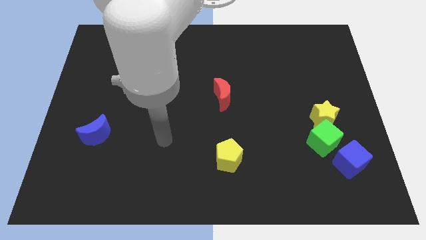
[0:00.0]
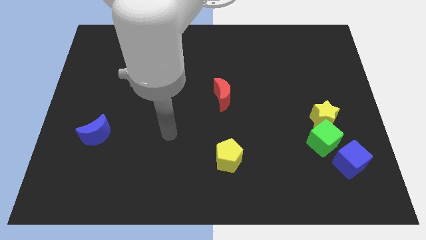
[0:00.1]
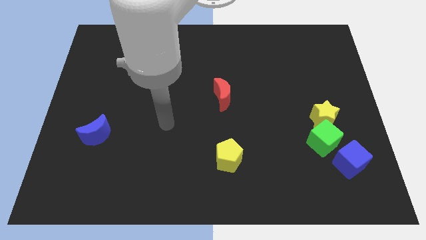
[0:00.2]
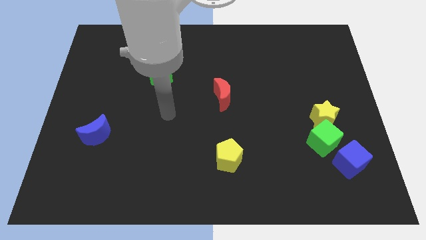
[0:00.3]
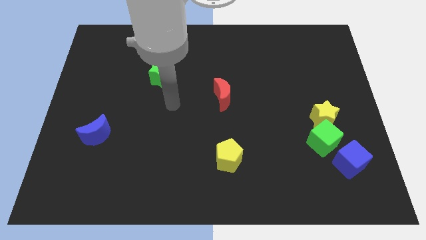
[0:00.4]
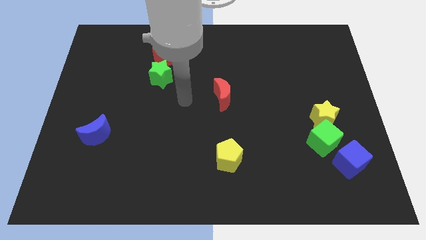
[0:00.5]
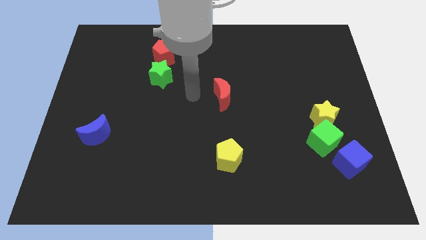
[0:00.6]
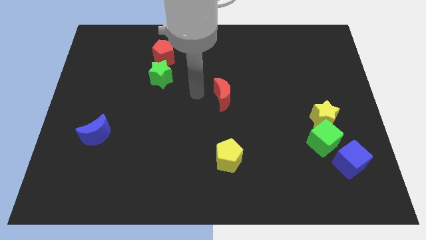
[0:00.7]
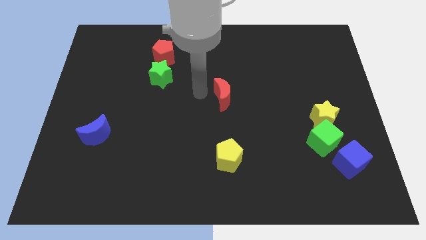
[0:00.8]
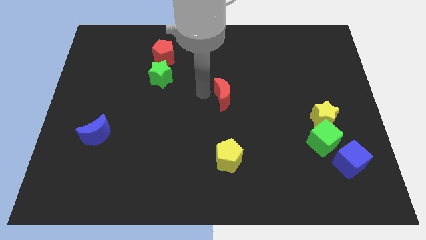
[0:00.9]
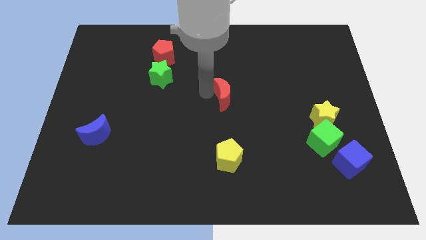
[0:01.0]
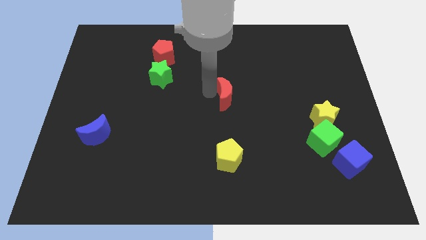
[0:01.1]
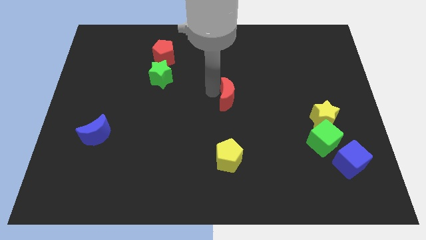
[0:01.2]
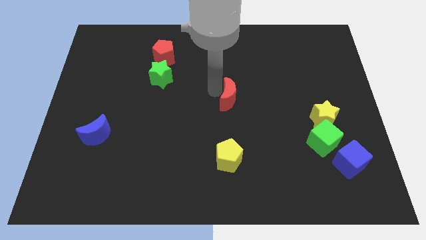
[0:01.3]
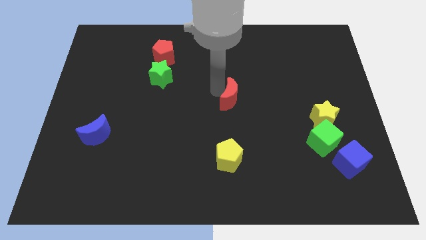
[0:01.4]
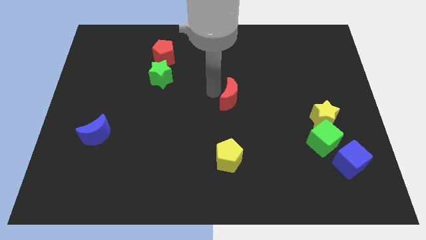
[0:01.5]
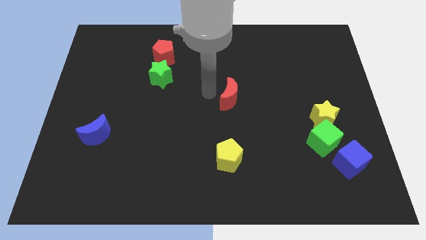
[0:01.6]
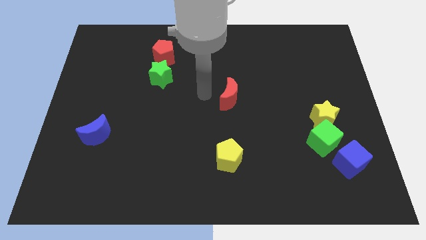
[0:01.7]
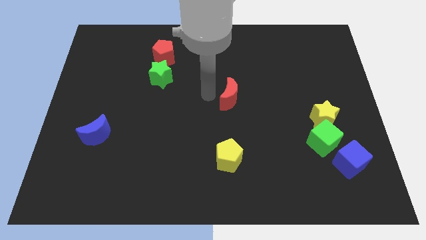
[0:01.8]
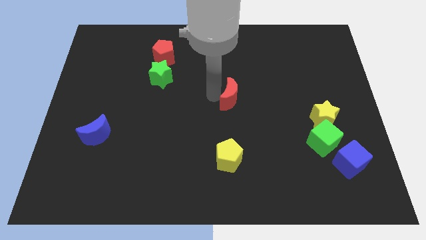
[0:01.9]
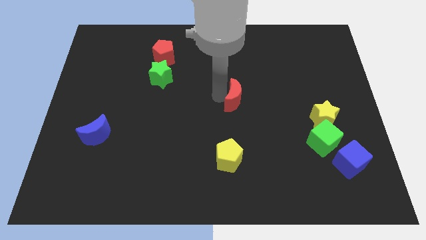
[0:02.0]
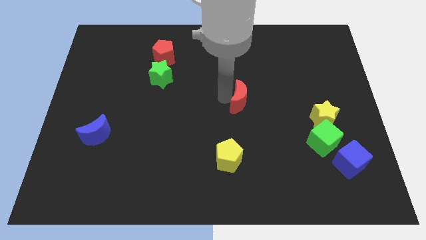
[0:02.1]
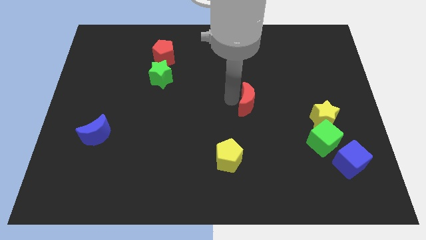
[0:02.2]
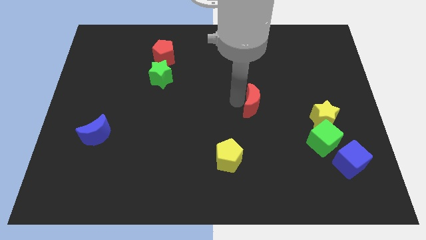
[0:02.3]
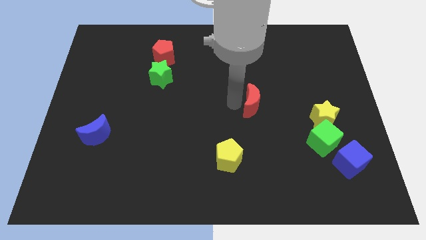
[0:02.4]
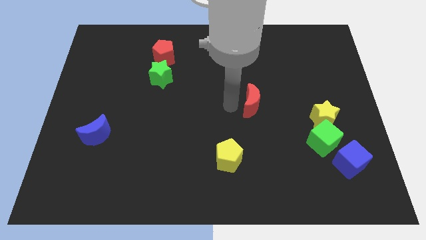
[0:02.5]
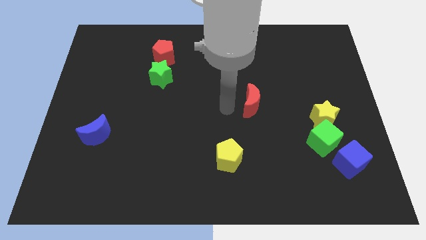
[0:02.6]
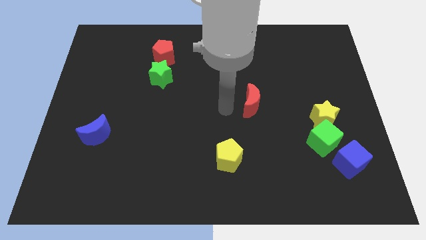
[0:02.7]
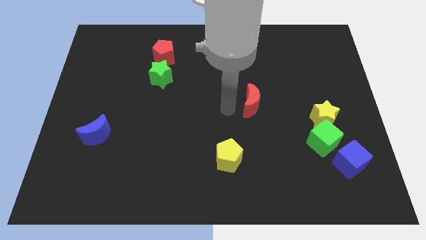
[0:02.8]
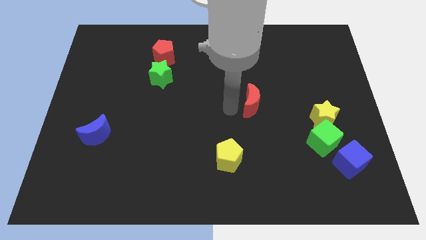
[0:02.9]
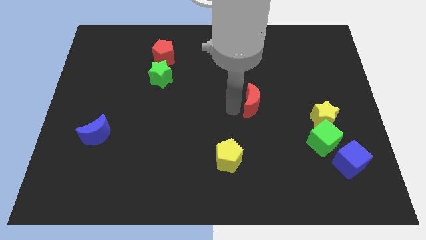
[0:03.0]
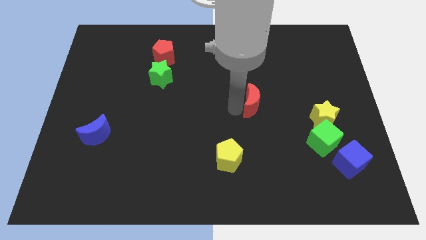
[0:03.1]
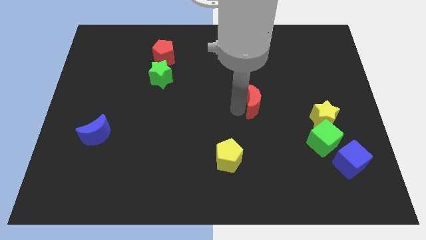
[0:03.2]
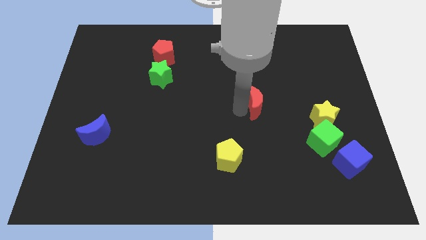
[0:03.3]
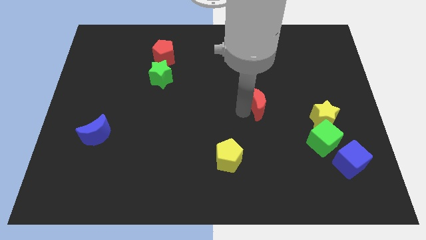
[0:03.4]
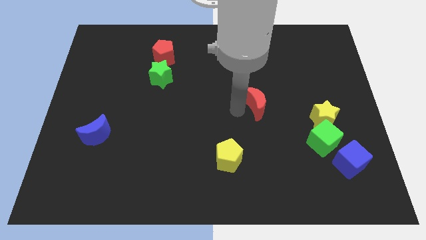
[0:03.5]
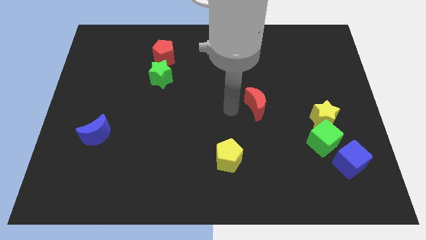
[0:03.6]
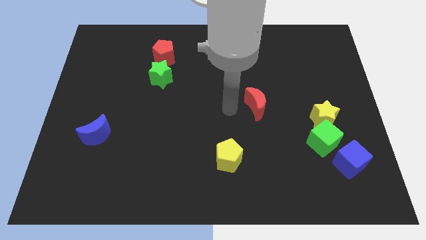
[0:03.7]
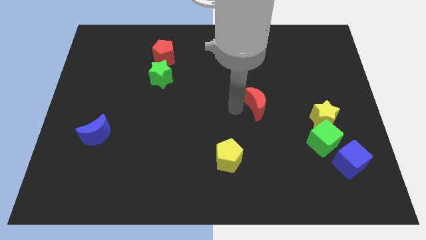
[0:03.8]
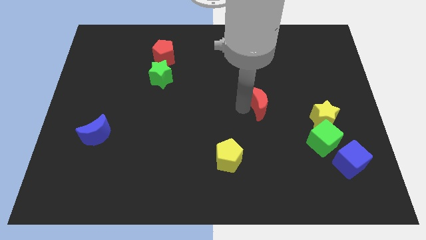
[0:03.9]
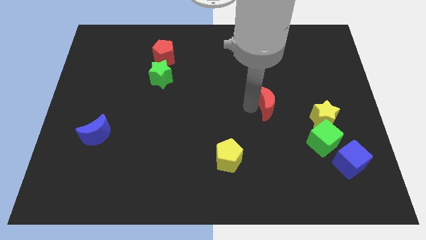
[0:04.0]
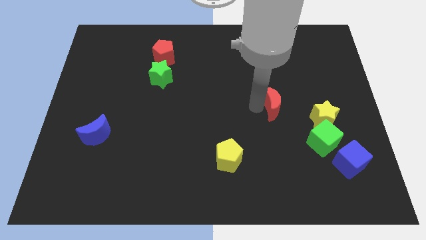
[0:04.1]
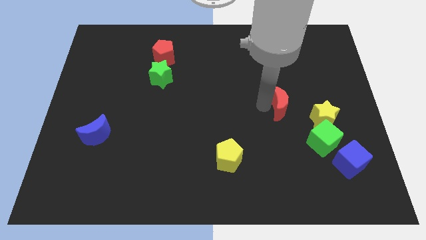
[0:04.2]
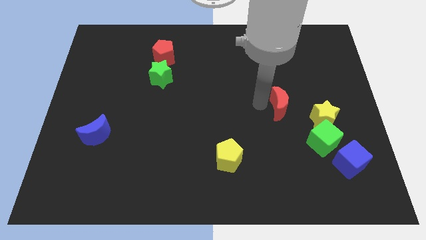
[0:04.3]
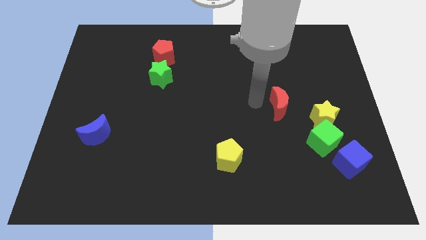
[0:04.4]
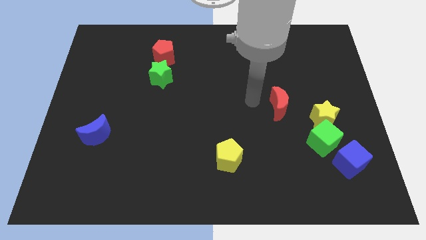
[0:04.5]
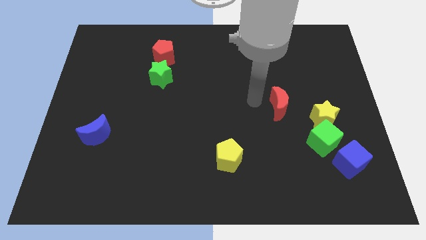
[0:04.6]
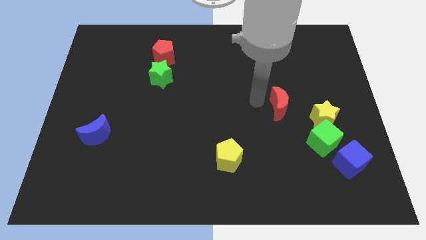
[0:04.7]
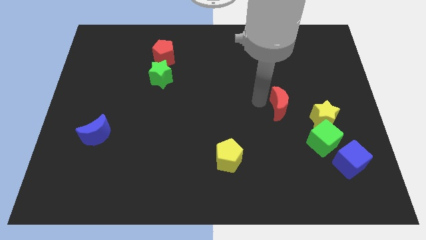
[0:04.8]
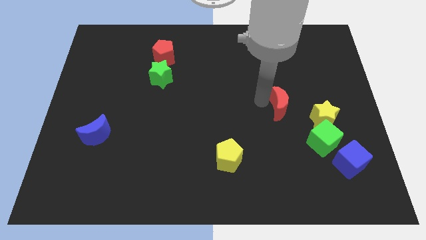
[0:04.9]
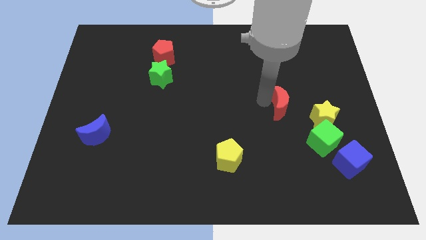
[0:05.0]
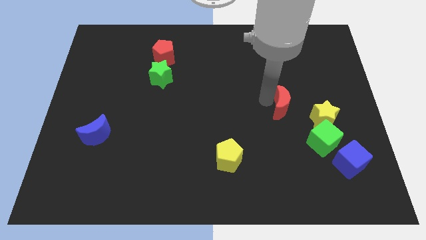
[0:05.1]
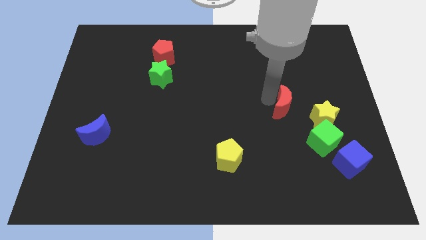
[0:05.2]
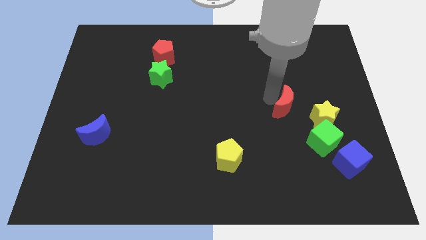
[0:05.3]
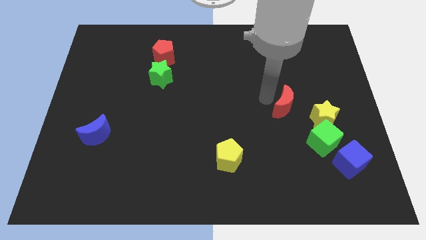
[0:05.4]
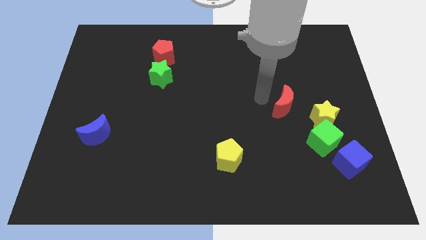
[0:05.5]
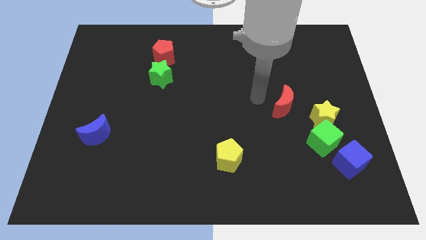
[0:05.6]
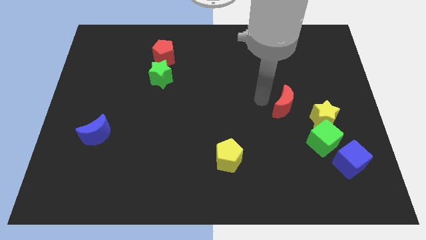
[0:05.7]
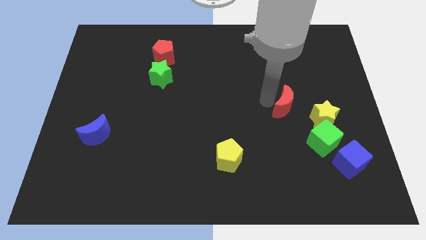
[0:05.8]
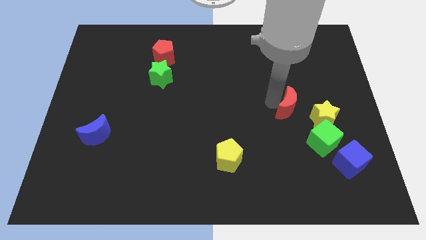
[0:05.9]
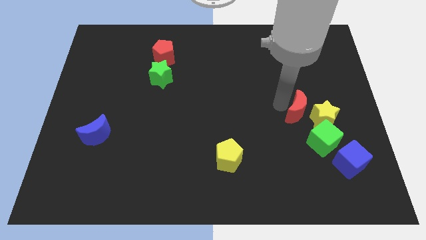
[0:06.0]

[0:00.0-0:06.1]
slide the red moon next to the yellow star

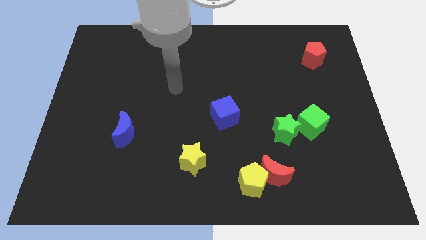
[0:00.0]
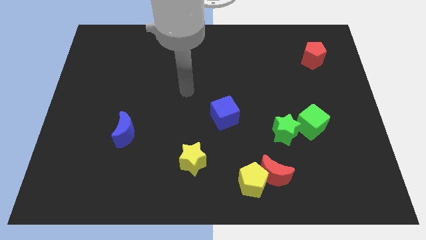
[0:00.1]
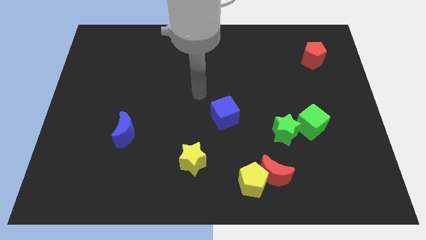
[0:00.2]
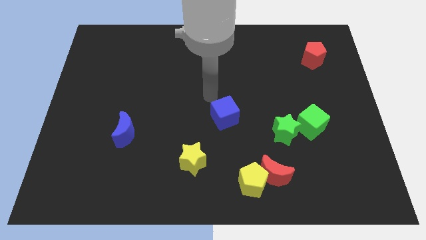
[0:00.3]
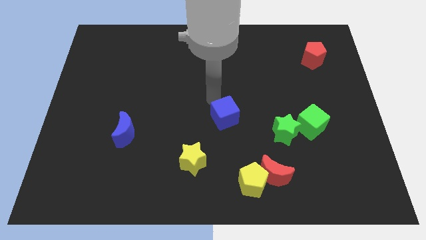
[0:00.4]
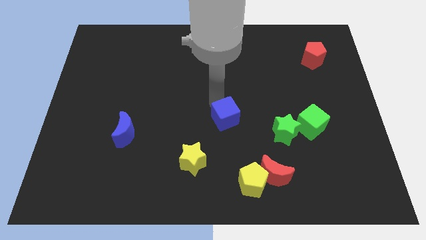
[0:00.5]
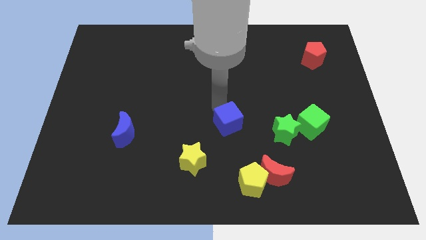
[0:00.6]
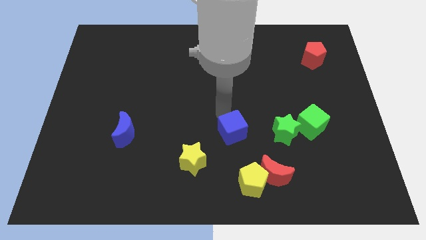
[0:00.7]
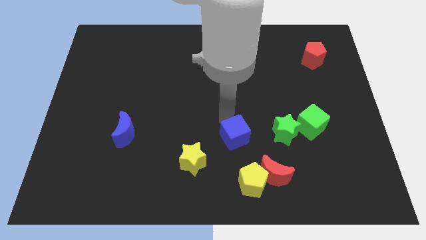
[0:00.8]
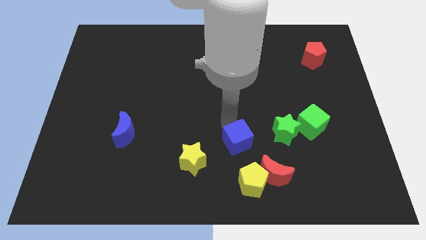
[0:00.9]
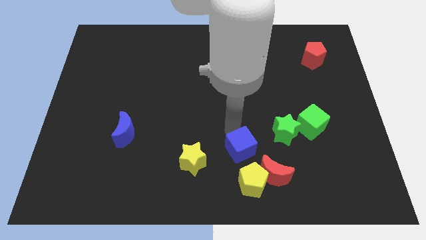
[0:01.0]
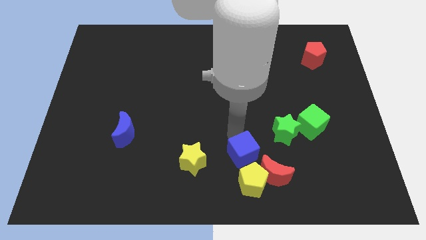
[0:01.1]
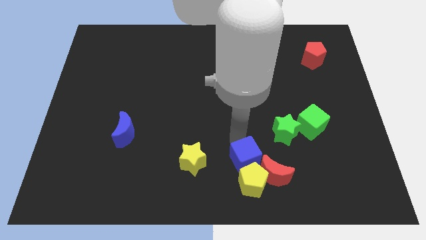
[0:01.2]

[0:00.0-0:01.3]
slide the blue cube towards the yellow pentagon
